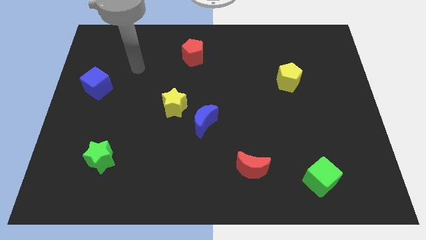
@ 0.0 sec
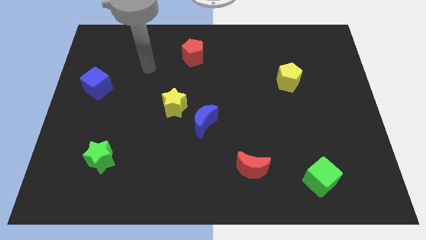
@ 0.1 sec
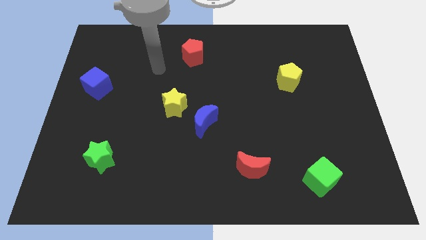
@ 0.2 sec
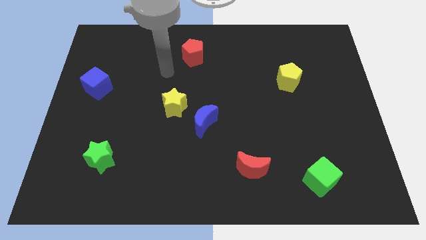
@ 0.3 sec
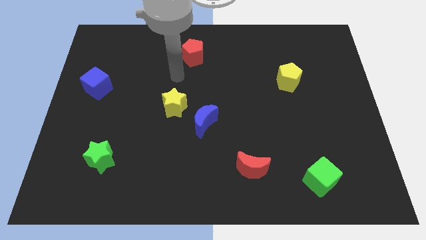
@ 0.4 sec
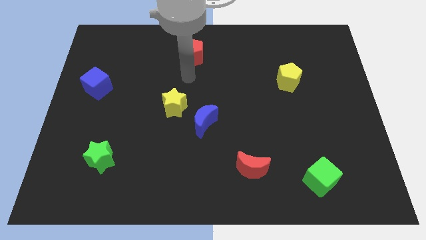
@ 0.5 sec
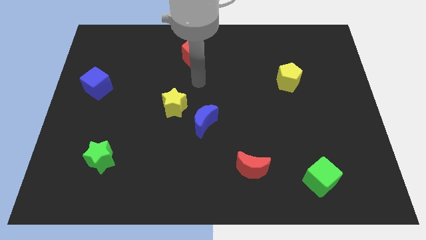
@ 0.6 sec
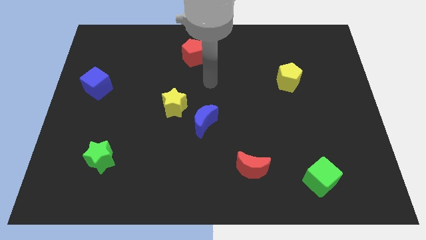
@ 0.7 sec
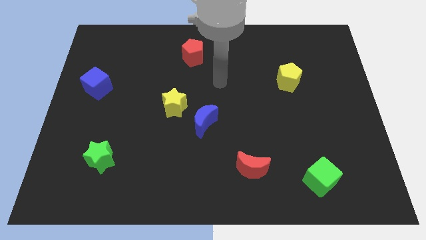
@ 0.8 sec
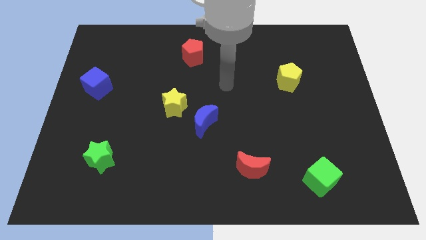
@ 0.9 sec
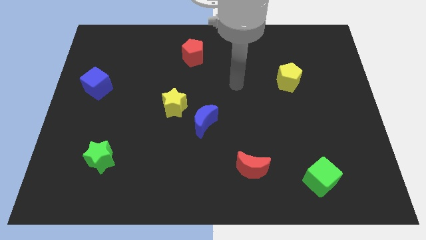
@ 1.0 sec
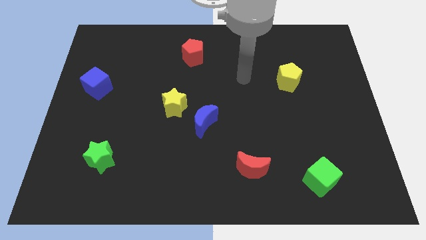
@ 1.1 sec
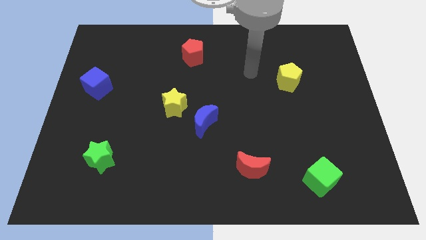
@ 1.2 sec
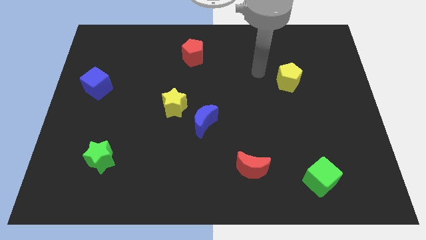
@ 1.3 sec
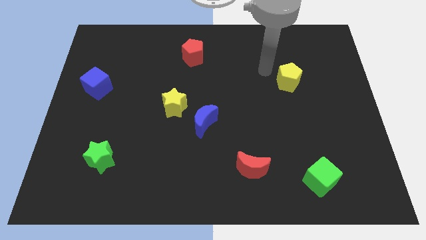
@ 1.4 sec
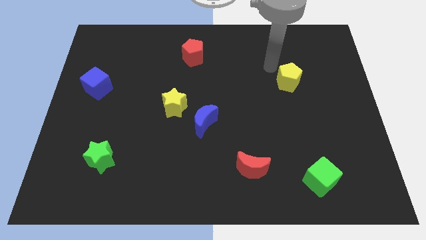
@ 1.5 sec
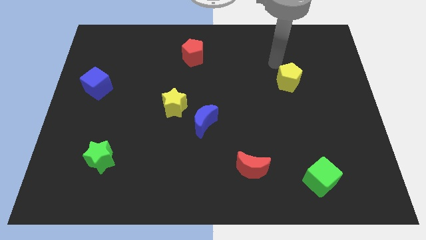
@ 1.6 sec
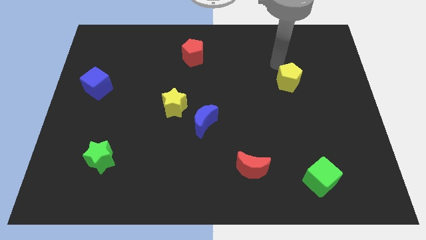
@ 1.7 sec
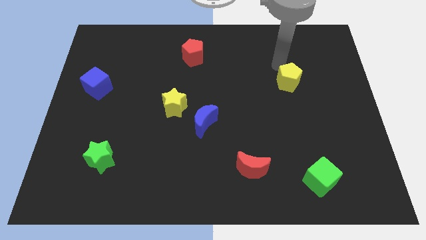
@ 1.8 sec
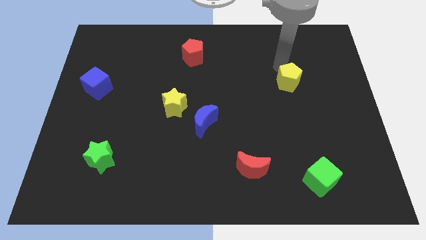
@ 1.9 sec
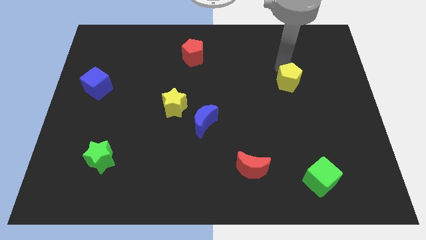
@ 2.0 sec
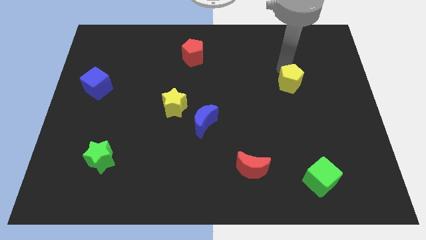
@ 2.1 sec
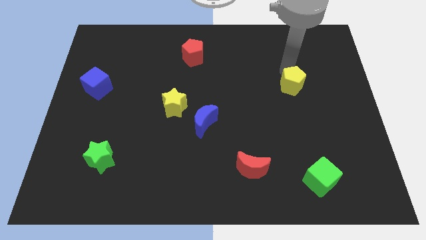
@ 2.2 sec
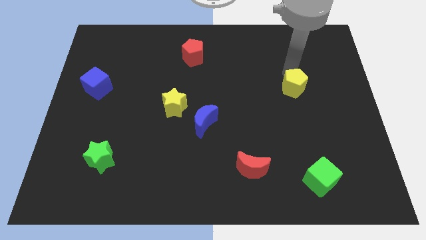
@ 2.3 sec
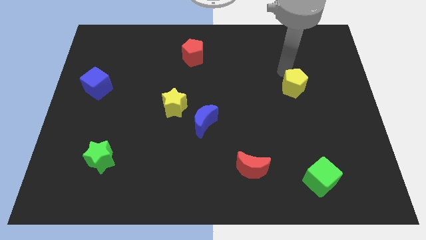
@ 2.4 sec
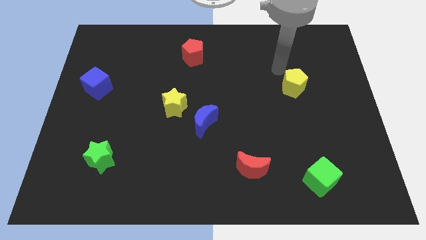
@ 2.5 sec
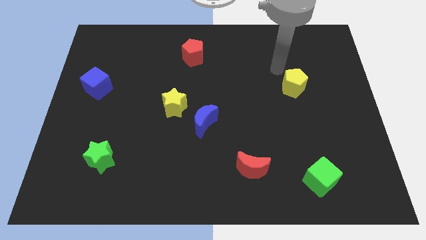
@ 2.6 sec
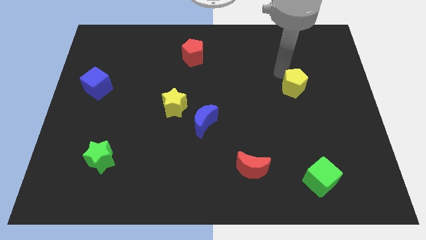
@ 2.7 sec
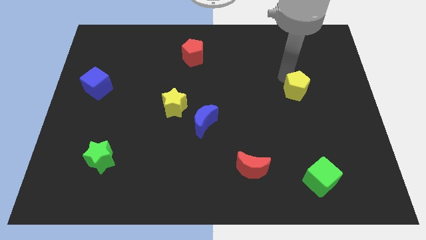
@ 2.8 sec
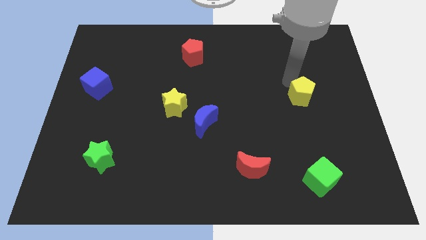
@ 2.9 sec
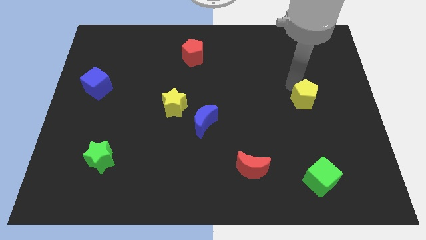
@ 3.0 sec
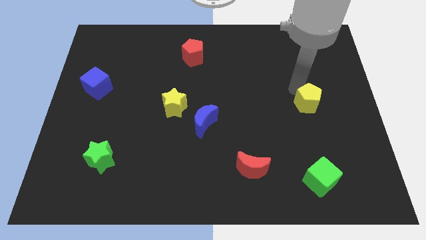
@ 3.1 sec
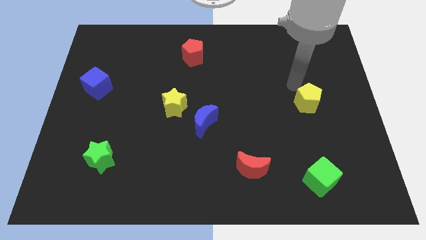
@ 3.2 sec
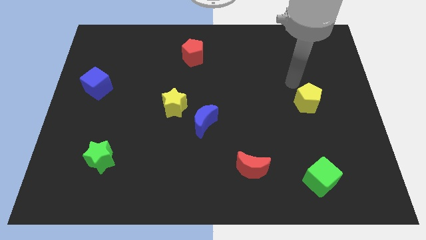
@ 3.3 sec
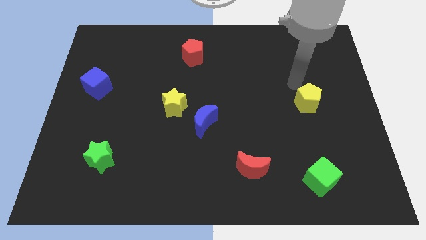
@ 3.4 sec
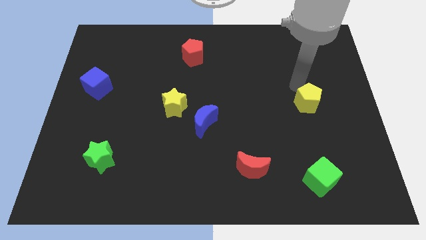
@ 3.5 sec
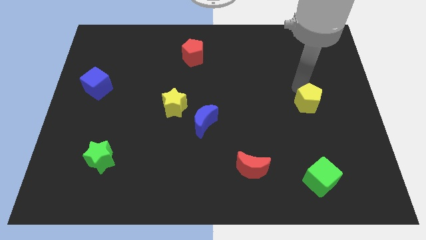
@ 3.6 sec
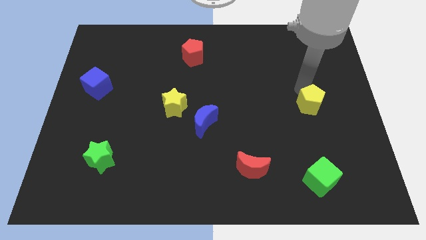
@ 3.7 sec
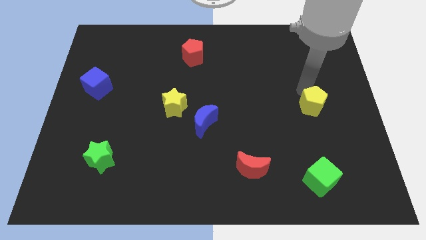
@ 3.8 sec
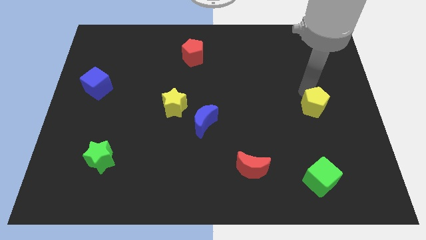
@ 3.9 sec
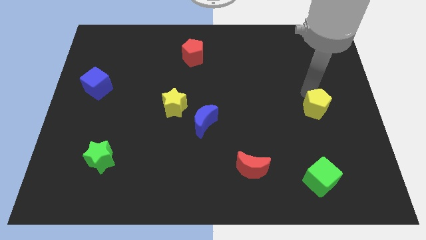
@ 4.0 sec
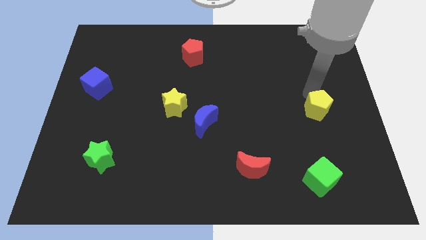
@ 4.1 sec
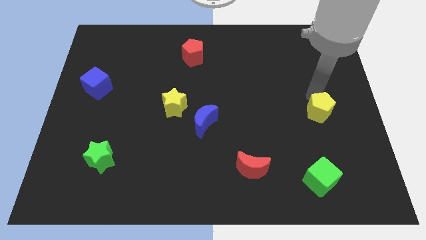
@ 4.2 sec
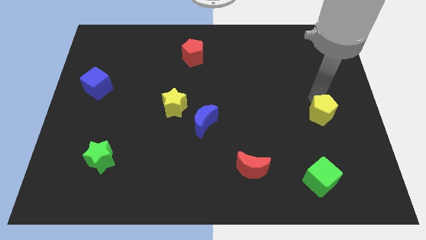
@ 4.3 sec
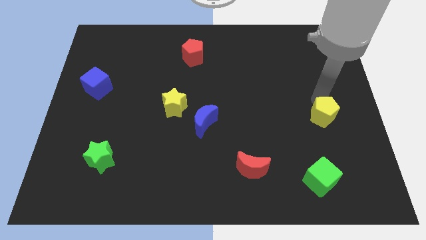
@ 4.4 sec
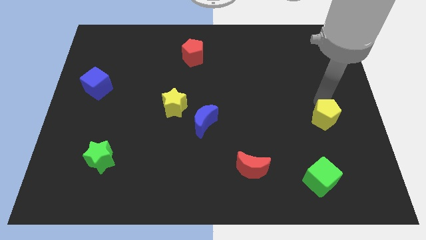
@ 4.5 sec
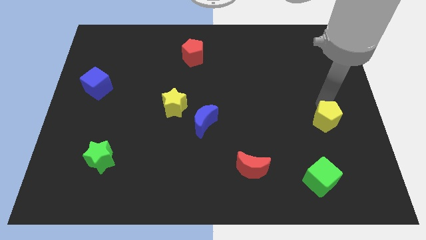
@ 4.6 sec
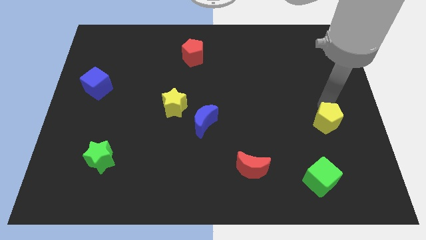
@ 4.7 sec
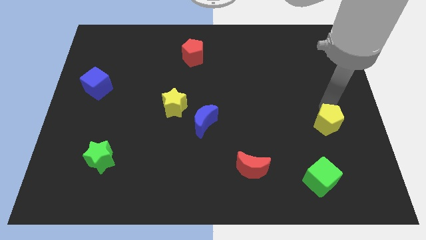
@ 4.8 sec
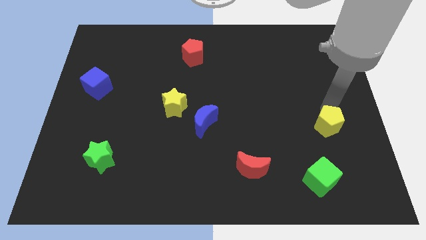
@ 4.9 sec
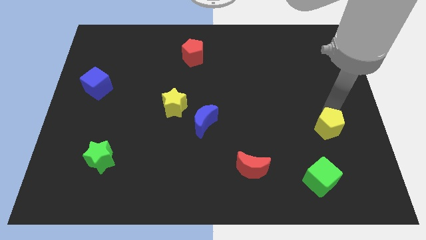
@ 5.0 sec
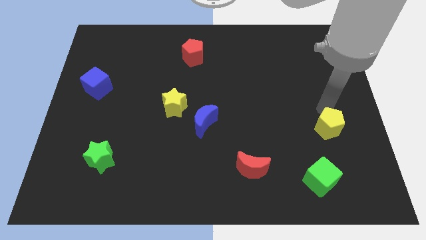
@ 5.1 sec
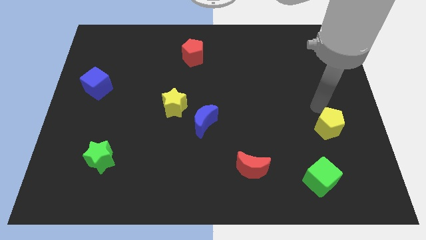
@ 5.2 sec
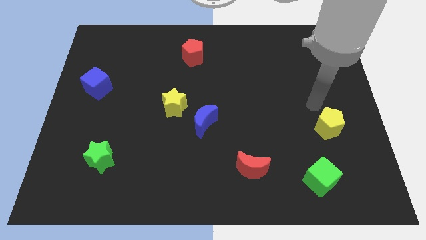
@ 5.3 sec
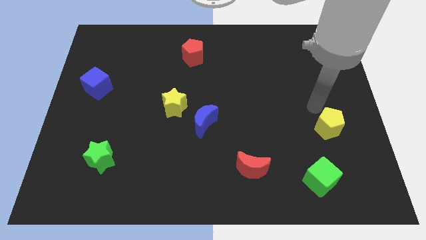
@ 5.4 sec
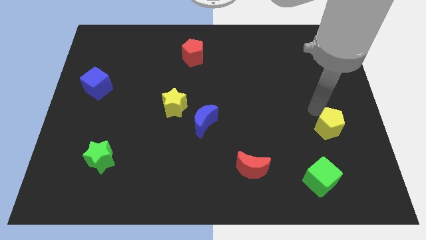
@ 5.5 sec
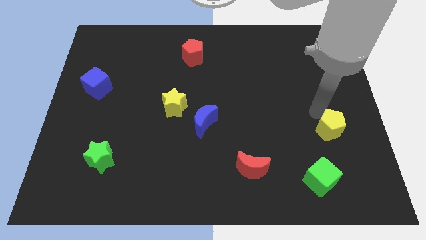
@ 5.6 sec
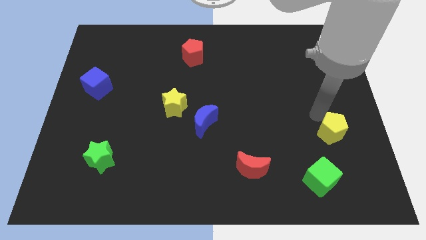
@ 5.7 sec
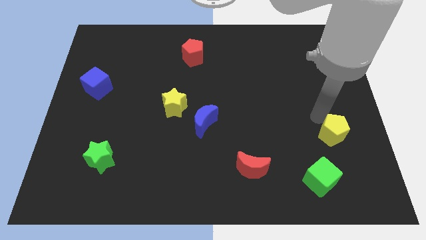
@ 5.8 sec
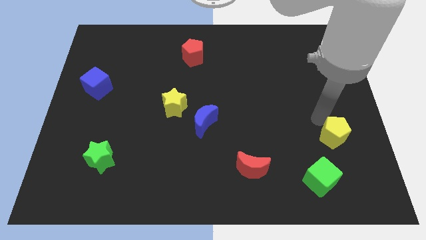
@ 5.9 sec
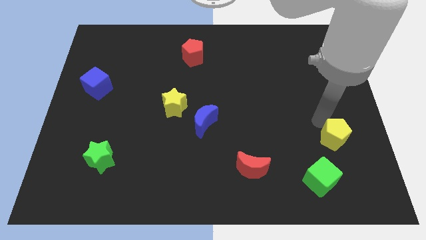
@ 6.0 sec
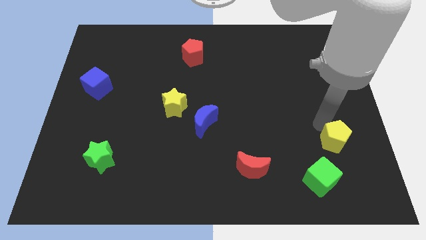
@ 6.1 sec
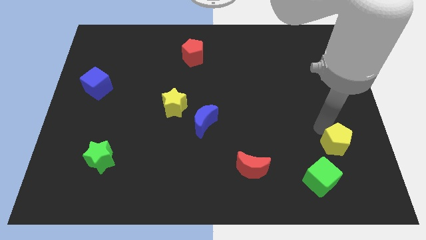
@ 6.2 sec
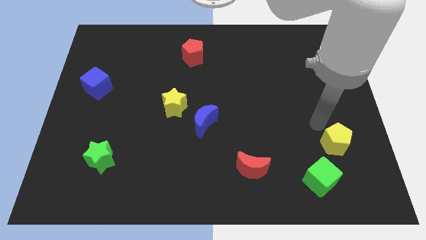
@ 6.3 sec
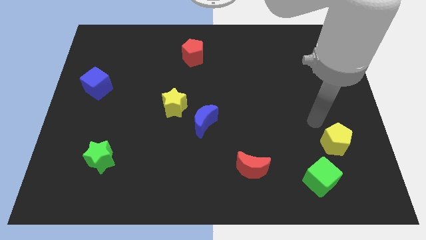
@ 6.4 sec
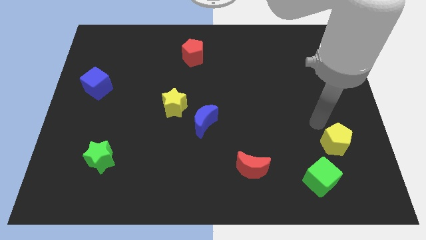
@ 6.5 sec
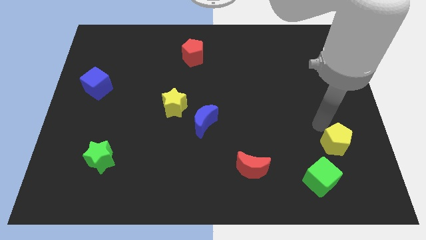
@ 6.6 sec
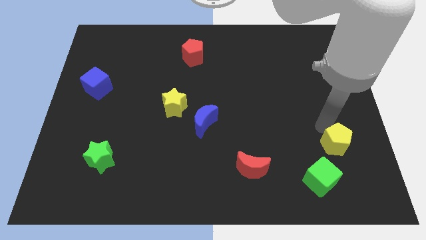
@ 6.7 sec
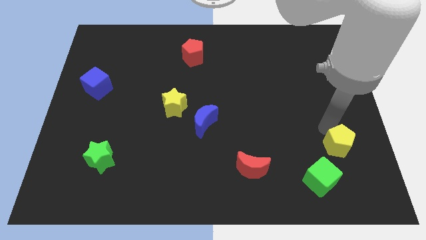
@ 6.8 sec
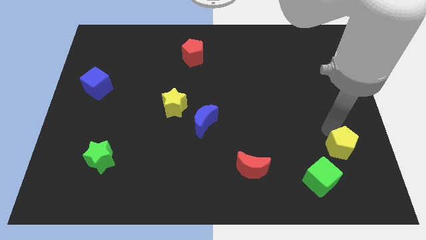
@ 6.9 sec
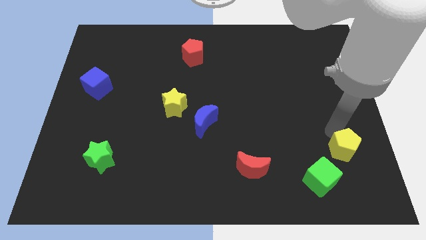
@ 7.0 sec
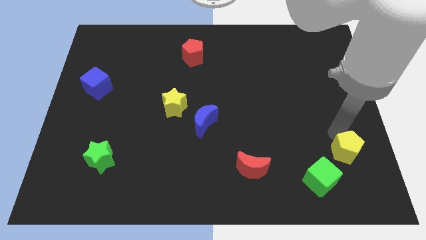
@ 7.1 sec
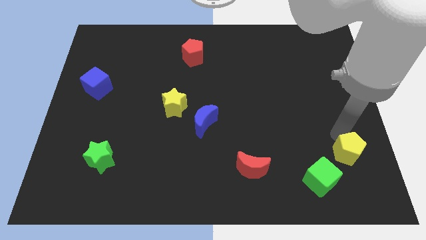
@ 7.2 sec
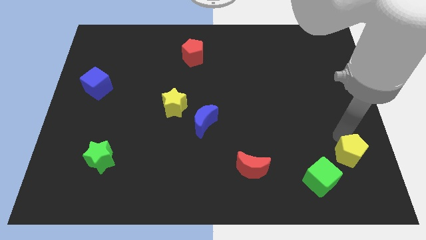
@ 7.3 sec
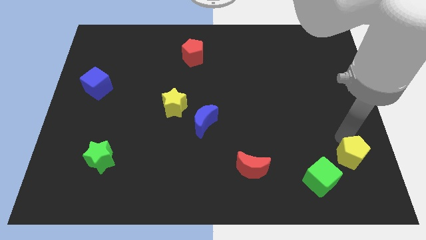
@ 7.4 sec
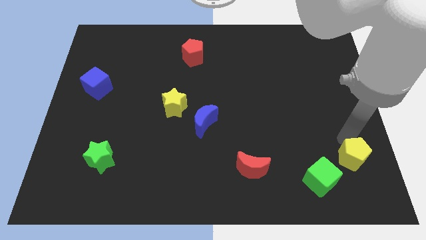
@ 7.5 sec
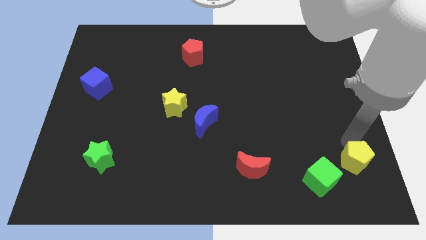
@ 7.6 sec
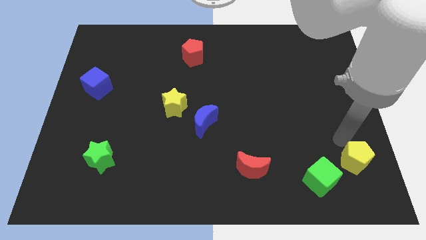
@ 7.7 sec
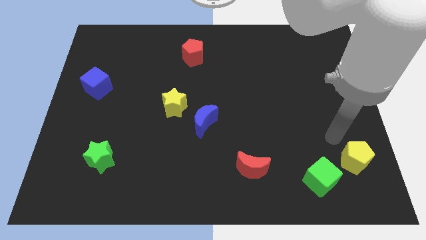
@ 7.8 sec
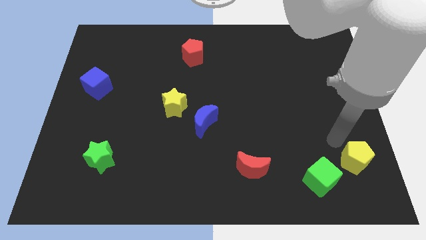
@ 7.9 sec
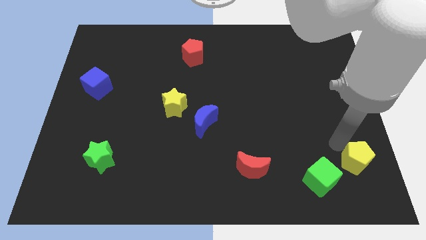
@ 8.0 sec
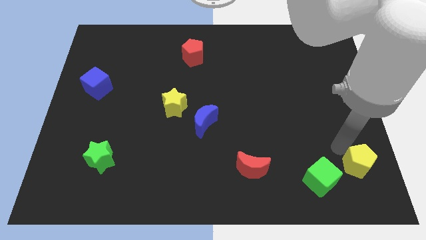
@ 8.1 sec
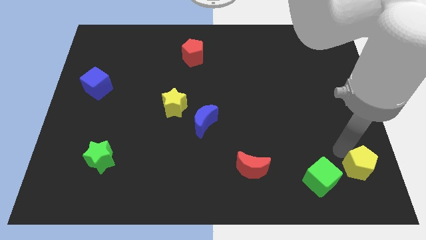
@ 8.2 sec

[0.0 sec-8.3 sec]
put the yellow pentagon to the bottom right corner
